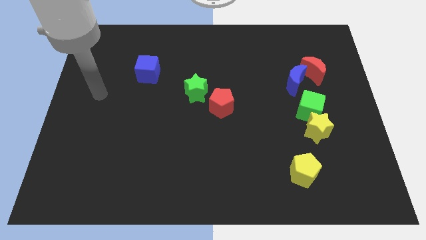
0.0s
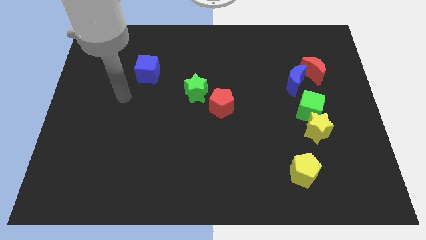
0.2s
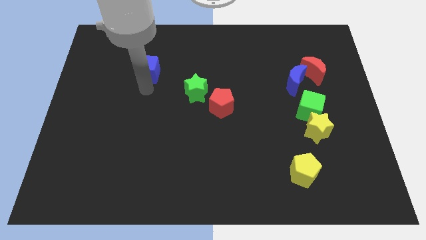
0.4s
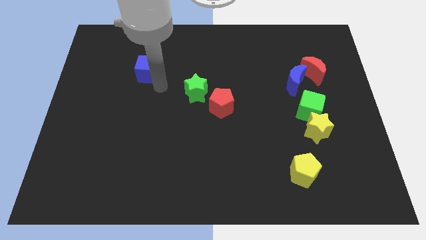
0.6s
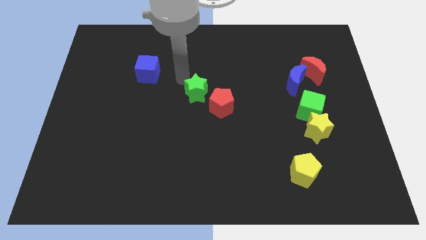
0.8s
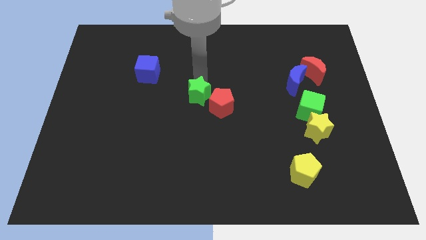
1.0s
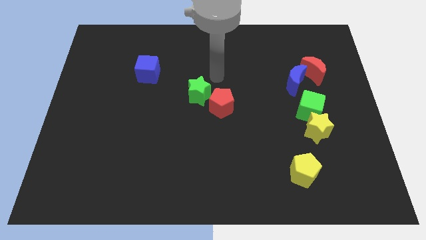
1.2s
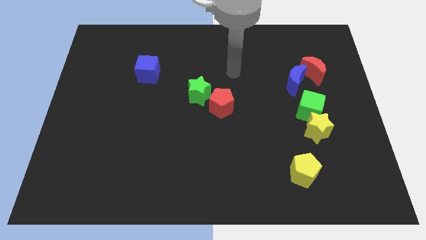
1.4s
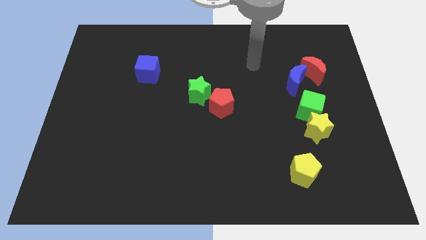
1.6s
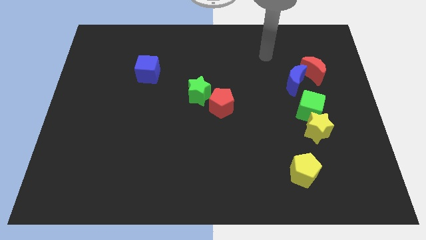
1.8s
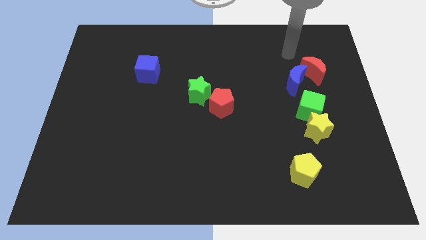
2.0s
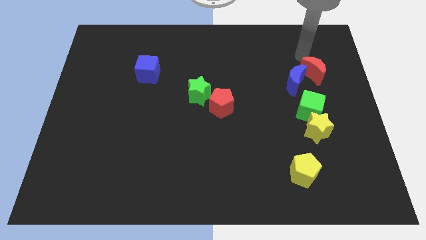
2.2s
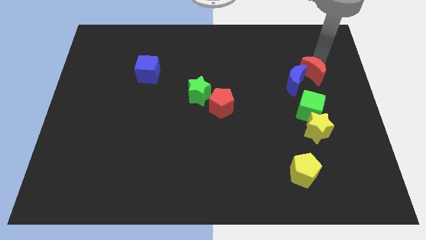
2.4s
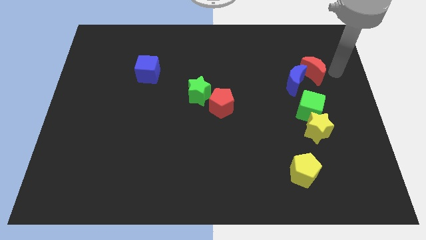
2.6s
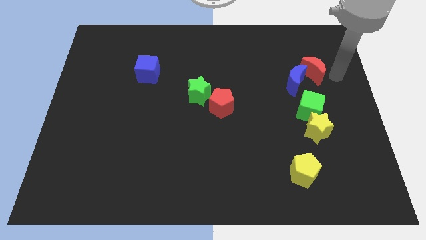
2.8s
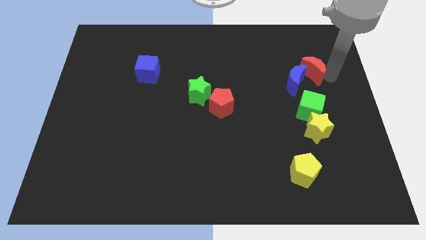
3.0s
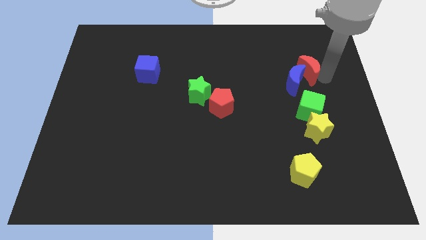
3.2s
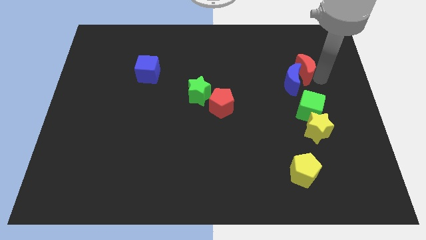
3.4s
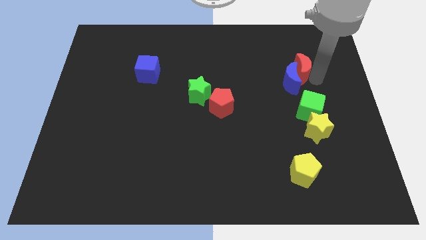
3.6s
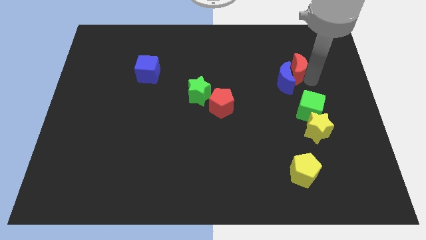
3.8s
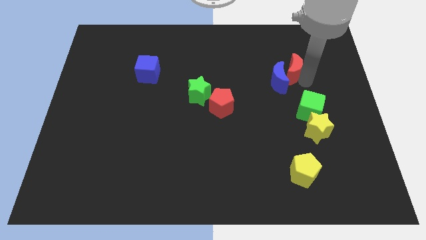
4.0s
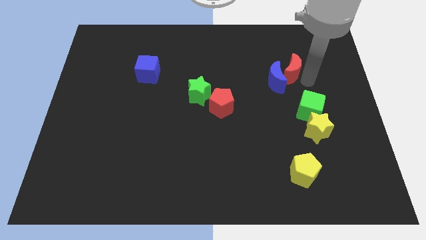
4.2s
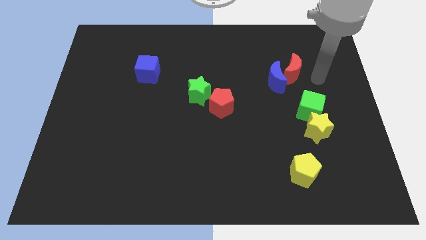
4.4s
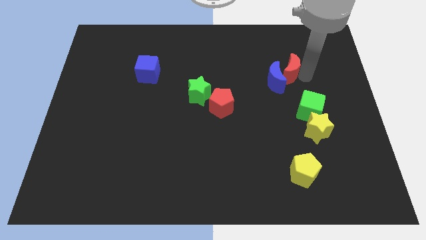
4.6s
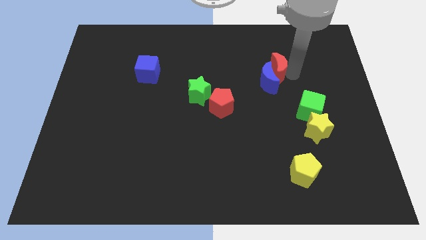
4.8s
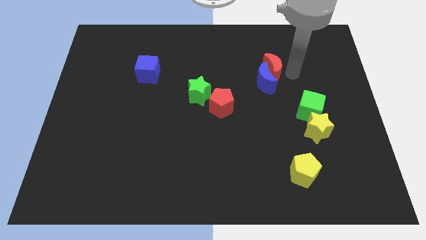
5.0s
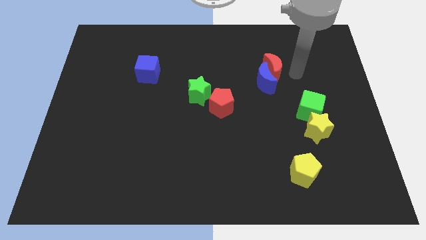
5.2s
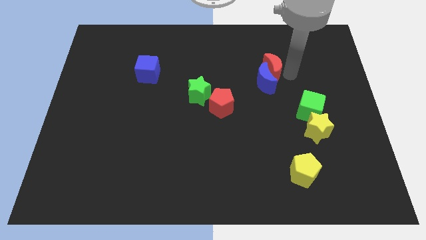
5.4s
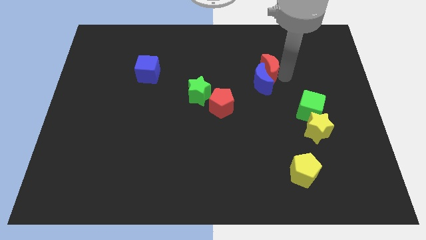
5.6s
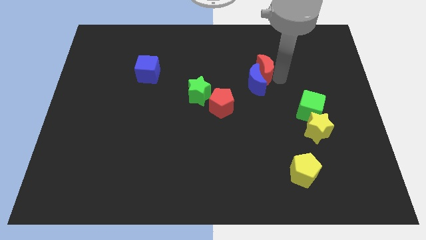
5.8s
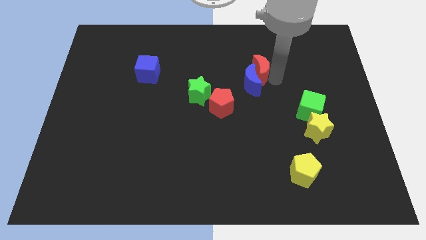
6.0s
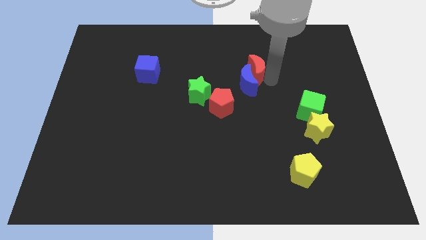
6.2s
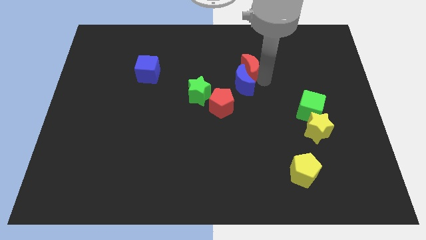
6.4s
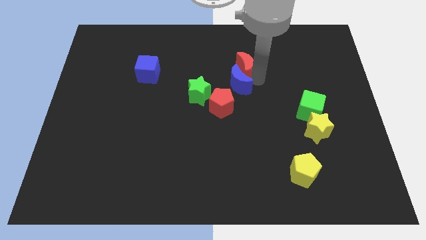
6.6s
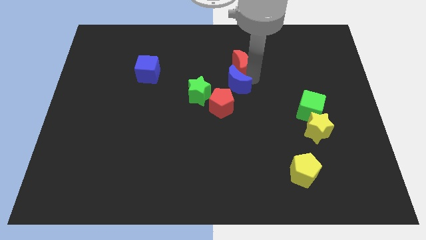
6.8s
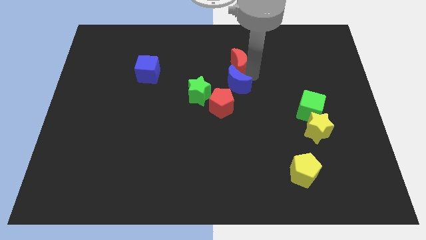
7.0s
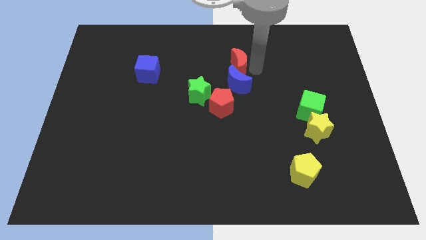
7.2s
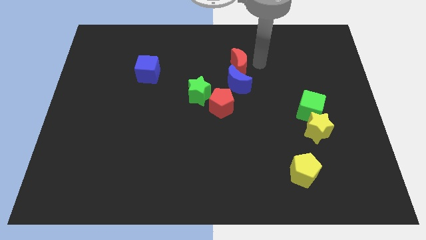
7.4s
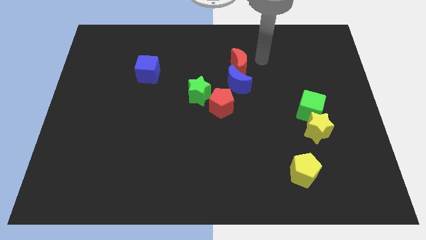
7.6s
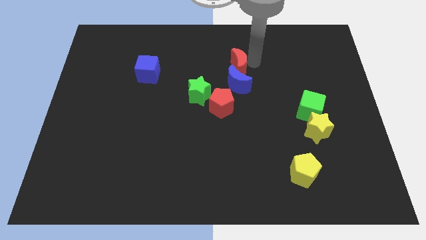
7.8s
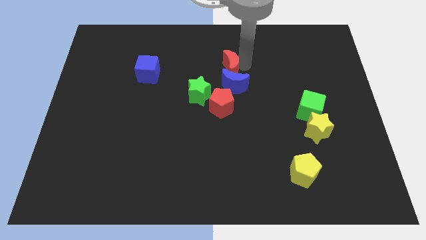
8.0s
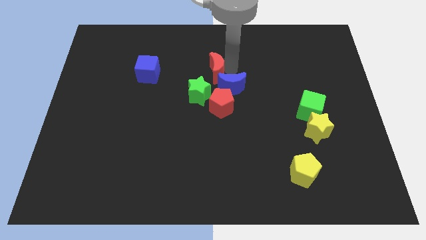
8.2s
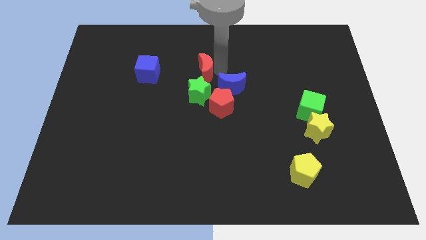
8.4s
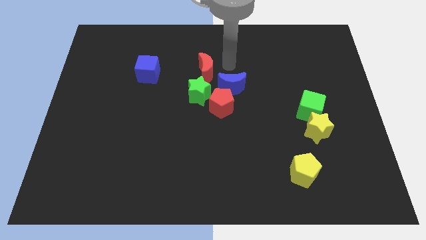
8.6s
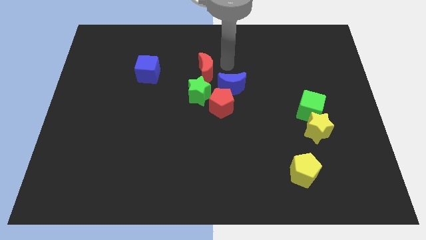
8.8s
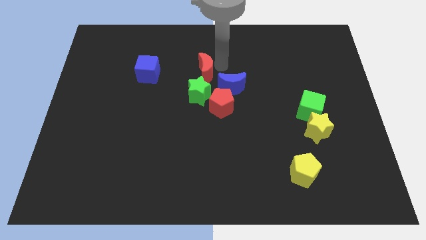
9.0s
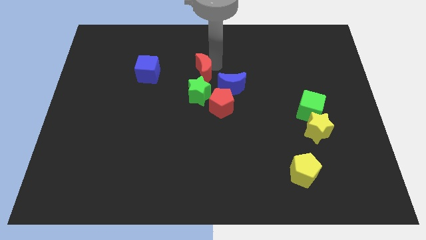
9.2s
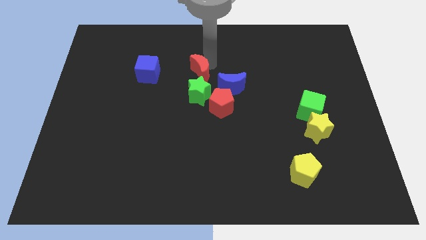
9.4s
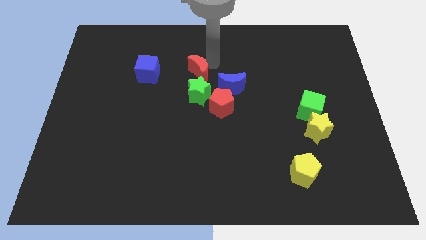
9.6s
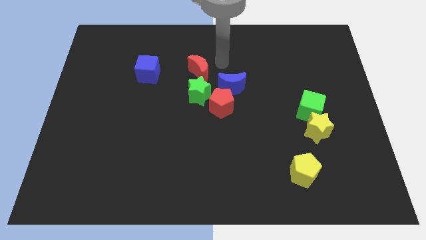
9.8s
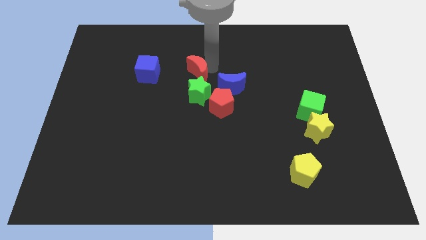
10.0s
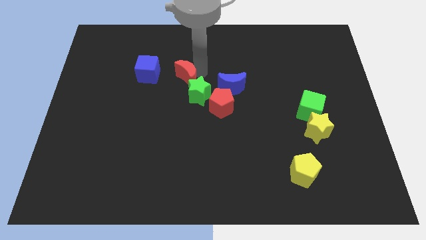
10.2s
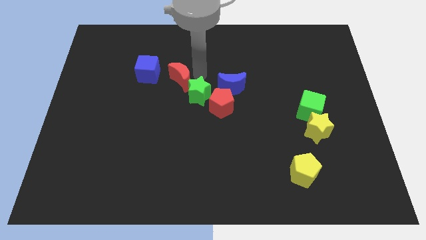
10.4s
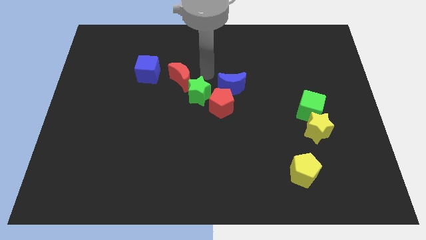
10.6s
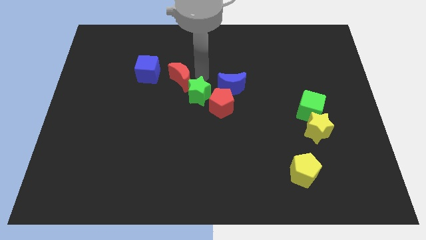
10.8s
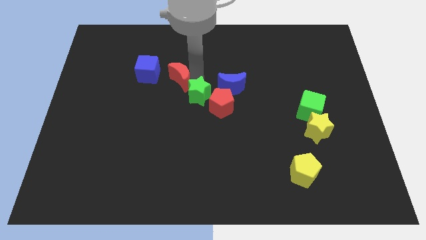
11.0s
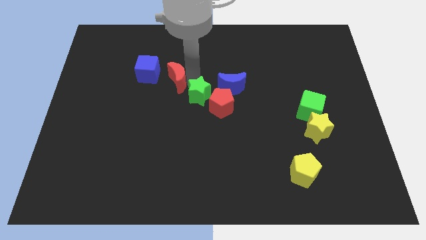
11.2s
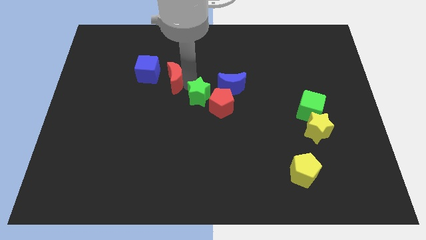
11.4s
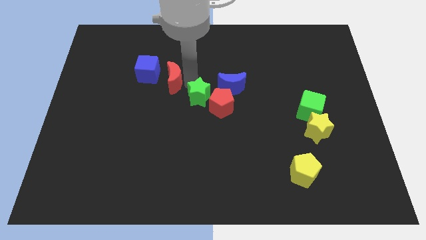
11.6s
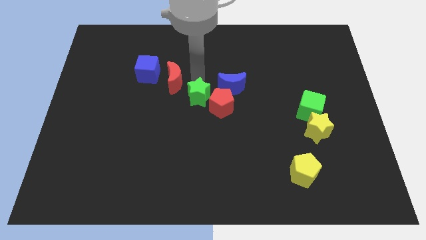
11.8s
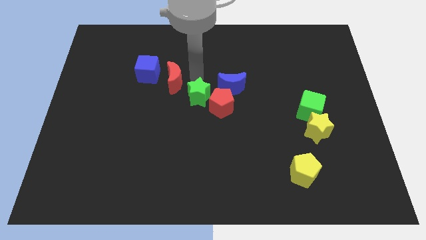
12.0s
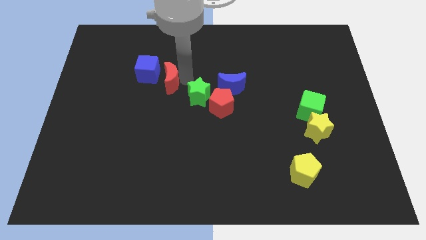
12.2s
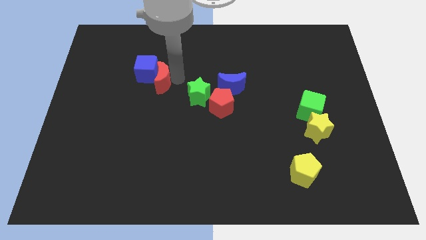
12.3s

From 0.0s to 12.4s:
push the red moon to the bottom side of the blue cube
